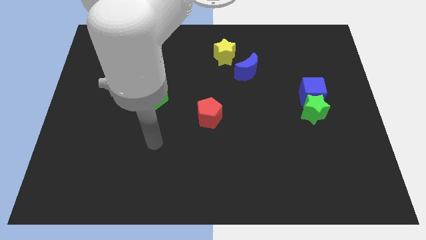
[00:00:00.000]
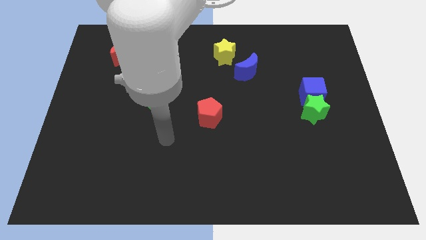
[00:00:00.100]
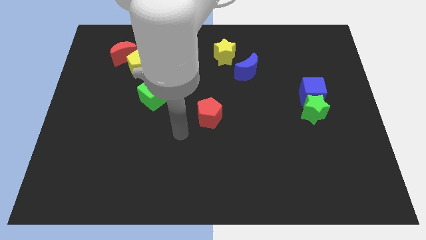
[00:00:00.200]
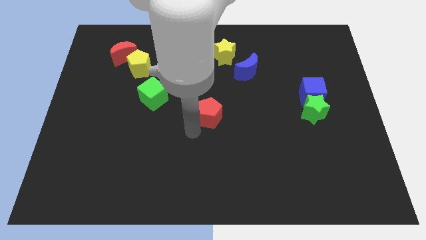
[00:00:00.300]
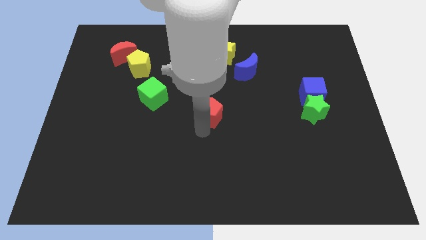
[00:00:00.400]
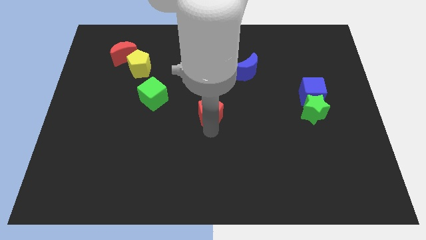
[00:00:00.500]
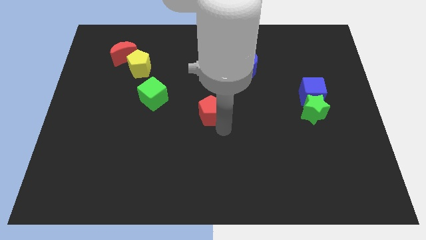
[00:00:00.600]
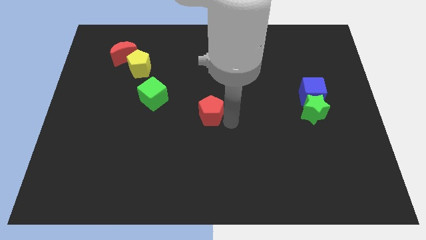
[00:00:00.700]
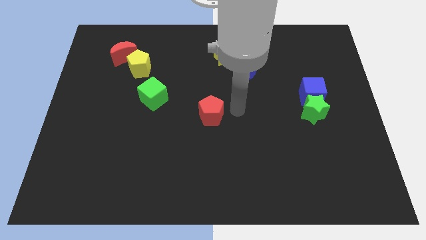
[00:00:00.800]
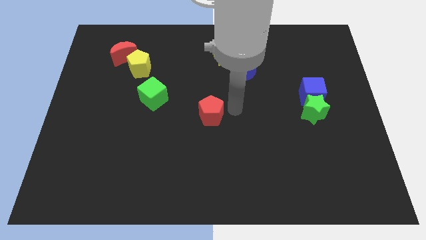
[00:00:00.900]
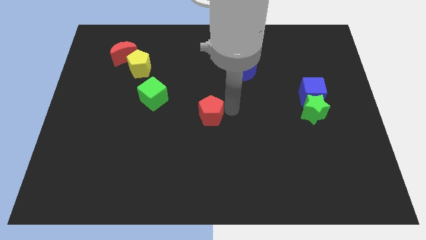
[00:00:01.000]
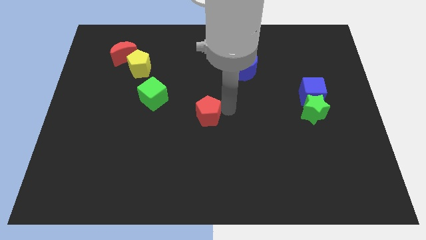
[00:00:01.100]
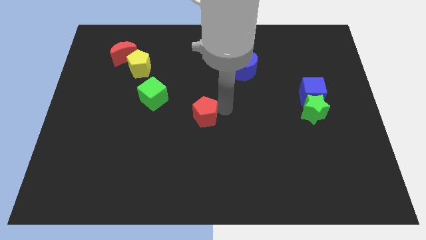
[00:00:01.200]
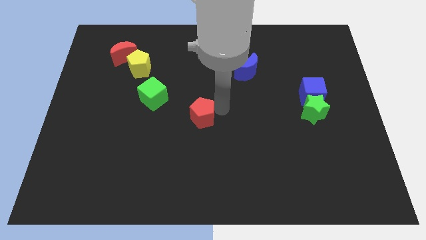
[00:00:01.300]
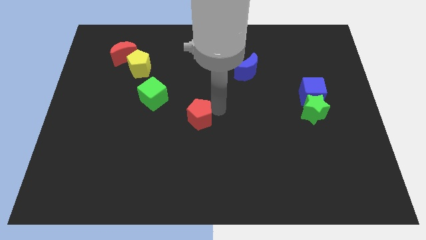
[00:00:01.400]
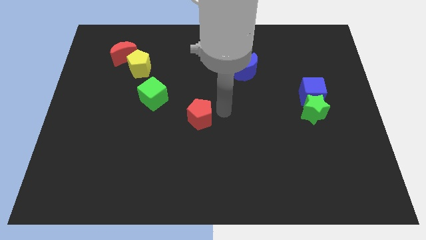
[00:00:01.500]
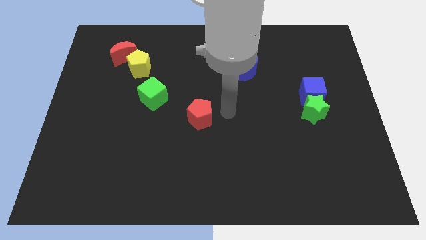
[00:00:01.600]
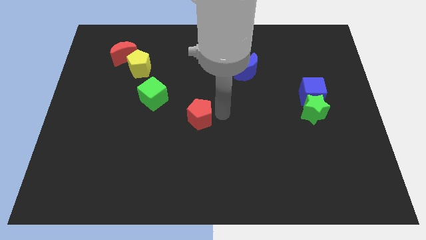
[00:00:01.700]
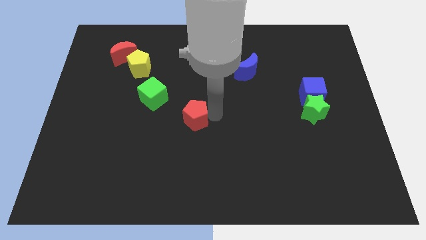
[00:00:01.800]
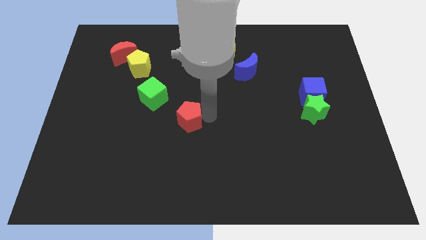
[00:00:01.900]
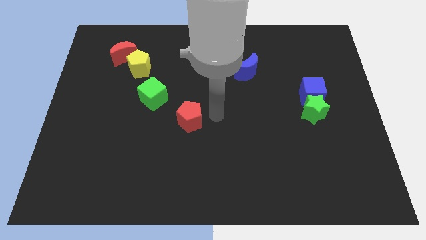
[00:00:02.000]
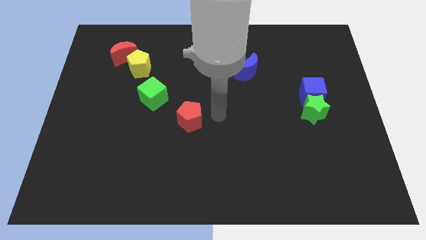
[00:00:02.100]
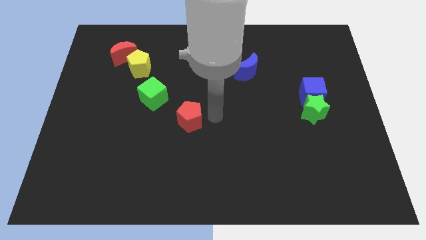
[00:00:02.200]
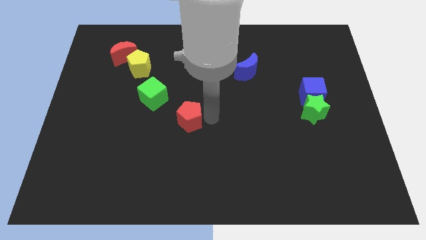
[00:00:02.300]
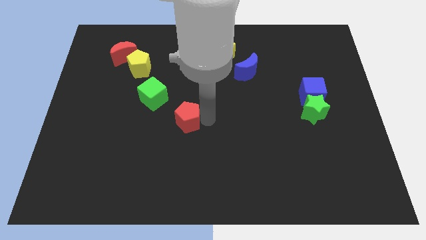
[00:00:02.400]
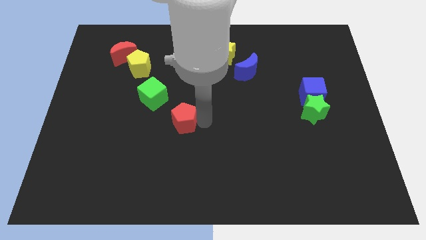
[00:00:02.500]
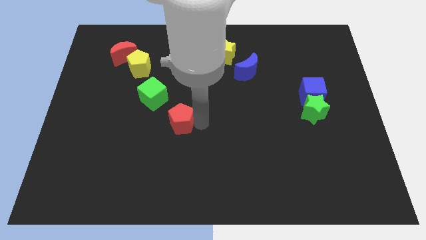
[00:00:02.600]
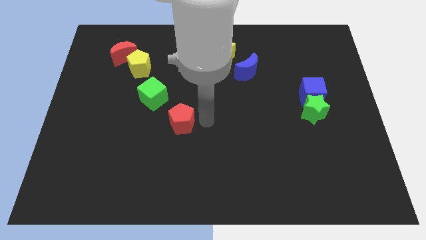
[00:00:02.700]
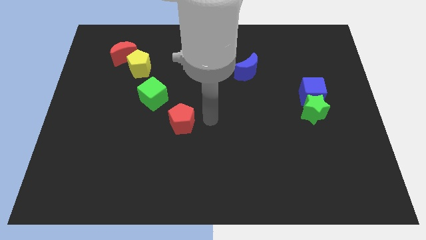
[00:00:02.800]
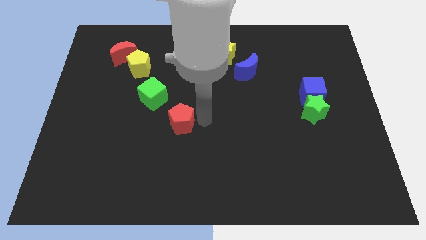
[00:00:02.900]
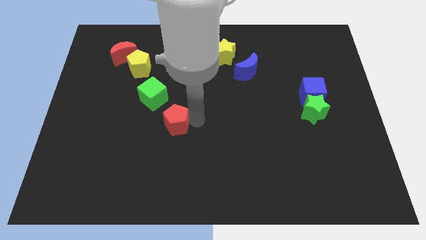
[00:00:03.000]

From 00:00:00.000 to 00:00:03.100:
move the red pentagon left a bit

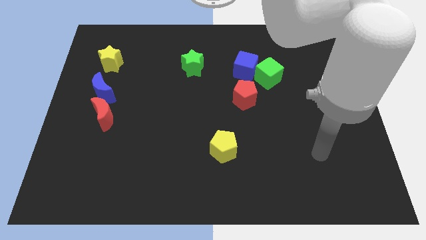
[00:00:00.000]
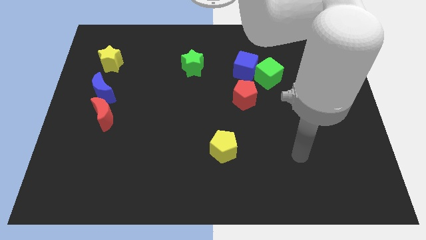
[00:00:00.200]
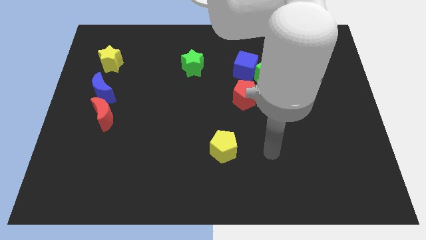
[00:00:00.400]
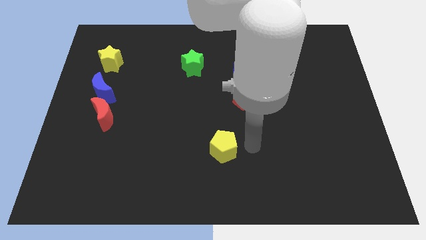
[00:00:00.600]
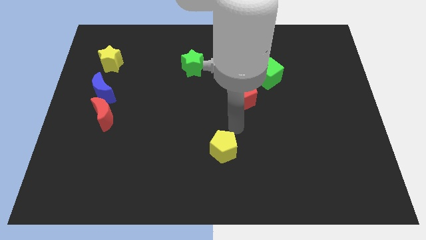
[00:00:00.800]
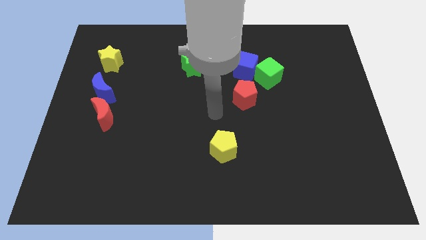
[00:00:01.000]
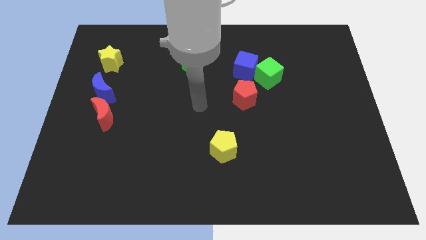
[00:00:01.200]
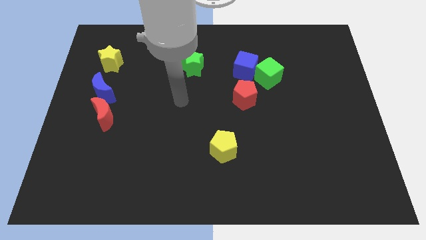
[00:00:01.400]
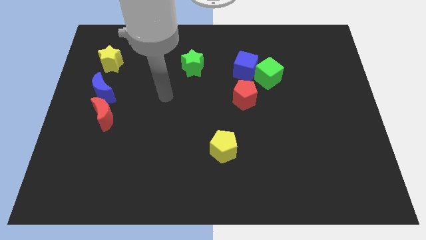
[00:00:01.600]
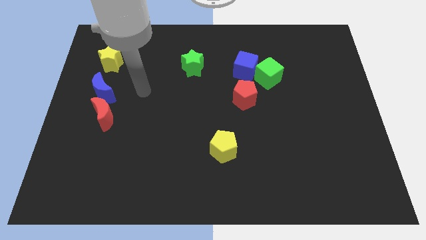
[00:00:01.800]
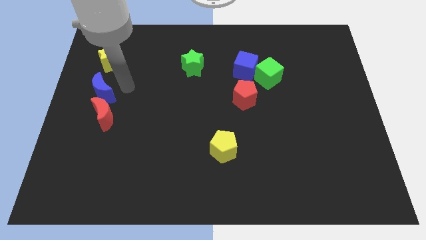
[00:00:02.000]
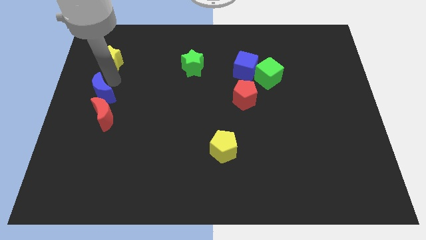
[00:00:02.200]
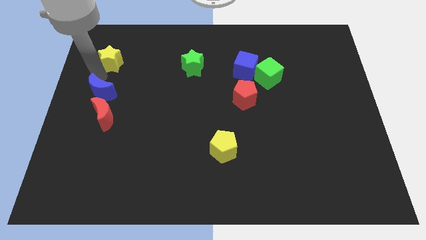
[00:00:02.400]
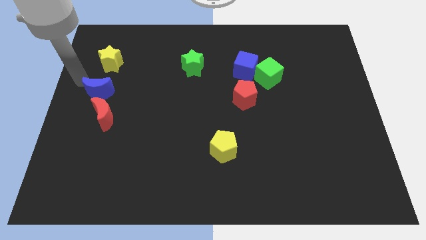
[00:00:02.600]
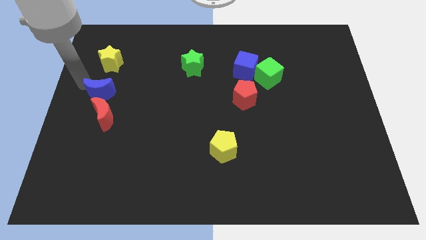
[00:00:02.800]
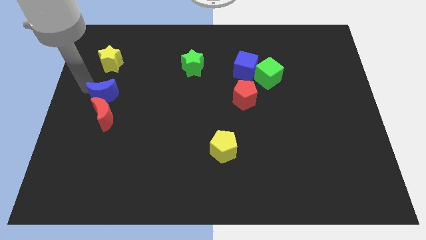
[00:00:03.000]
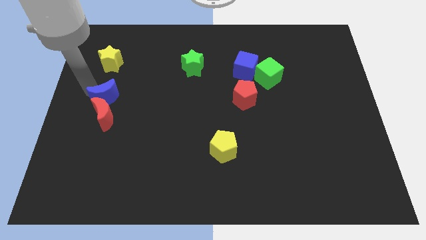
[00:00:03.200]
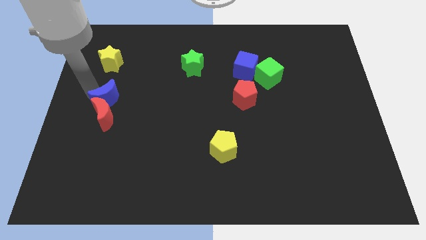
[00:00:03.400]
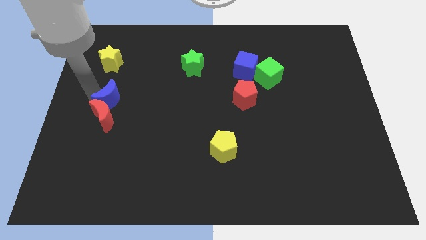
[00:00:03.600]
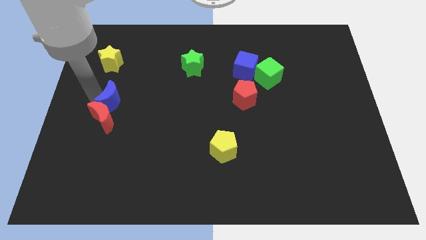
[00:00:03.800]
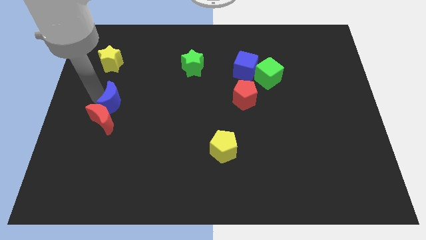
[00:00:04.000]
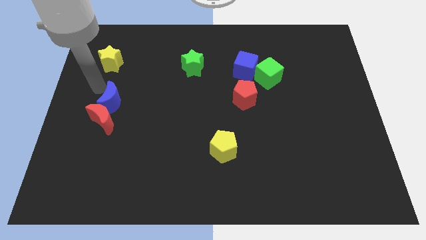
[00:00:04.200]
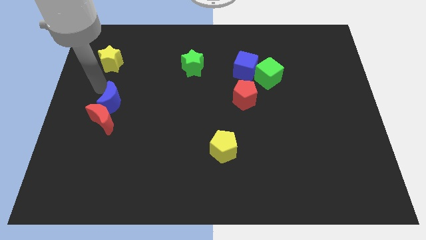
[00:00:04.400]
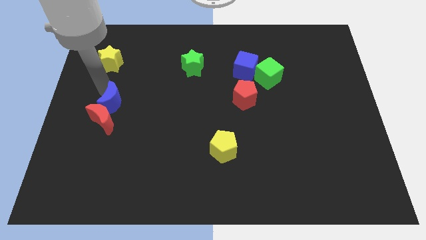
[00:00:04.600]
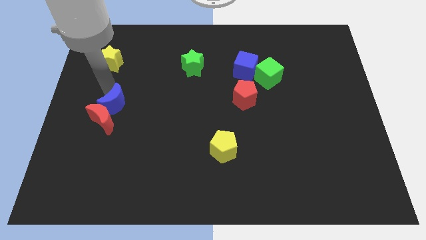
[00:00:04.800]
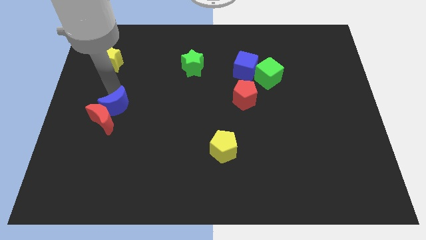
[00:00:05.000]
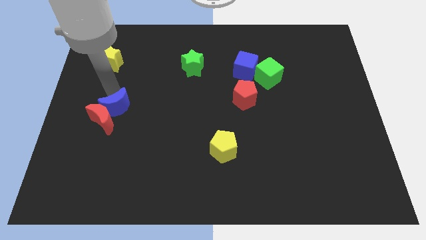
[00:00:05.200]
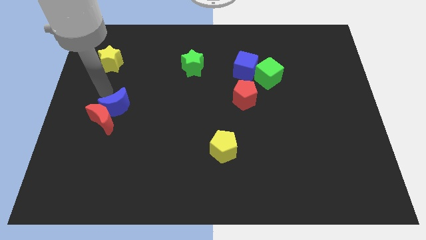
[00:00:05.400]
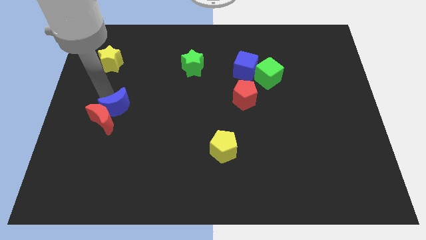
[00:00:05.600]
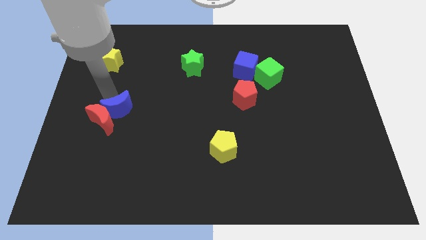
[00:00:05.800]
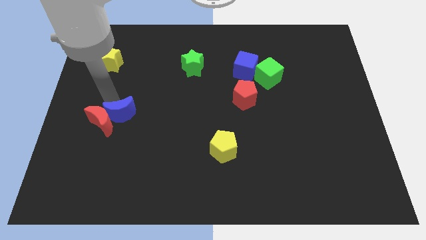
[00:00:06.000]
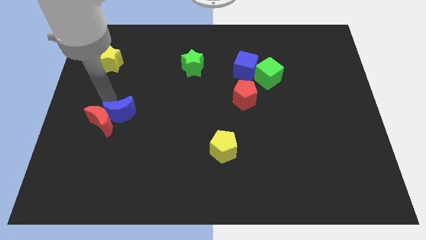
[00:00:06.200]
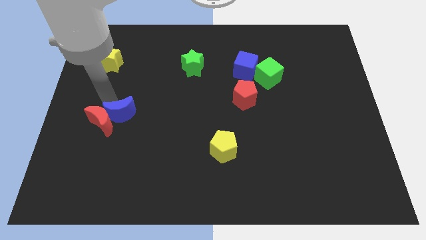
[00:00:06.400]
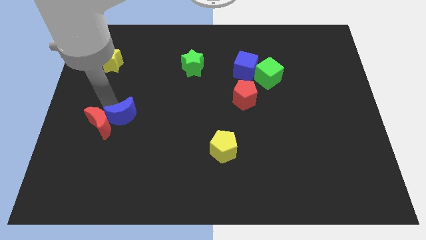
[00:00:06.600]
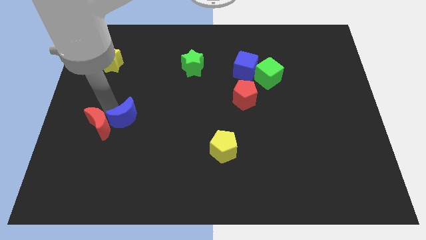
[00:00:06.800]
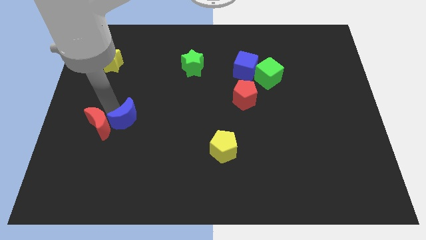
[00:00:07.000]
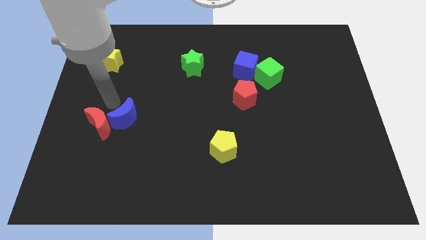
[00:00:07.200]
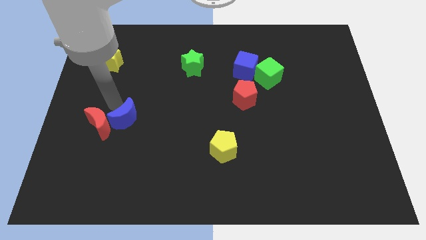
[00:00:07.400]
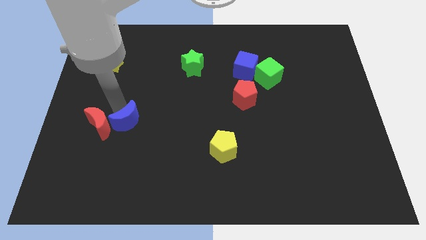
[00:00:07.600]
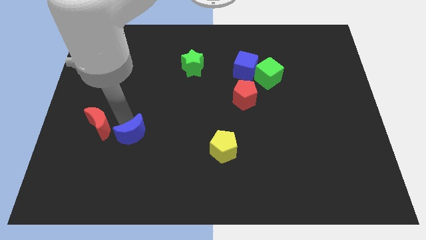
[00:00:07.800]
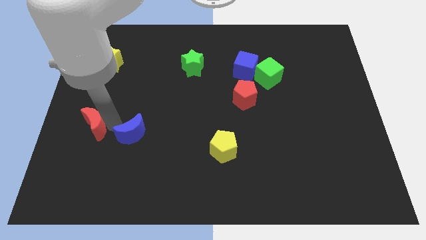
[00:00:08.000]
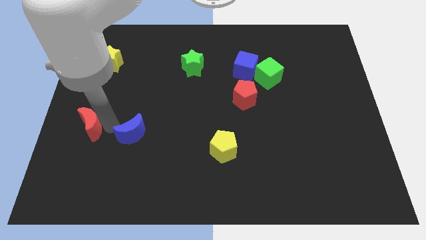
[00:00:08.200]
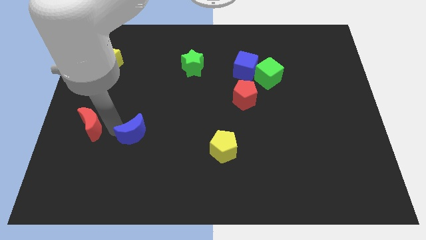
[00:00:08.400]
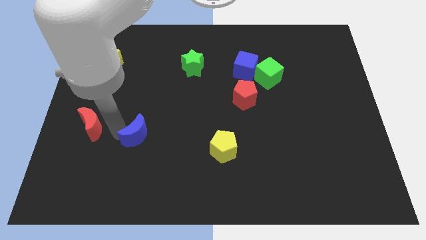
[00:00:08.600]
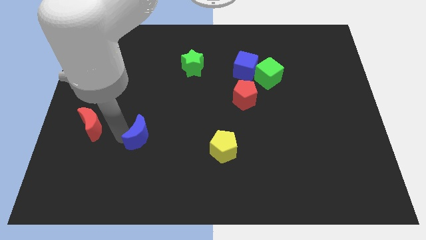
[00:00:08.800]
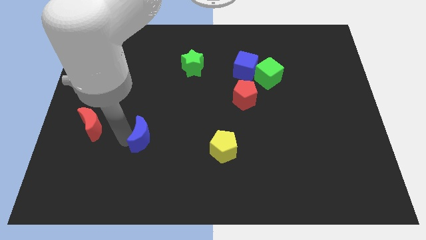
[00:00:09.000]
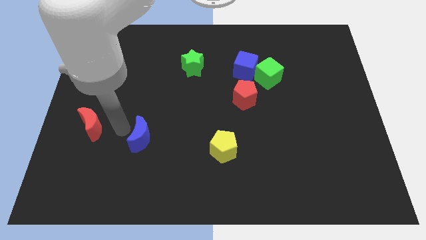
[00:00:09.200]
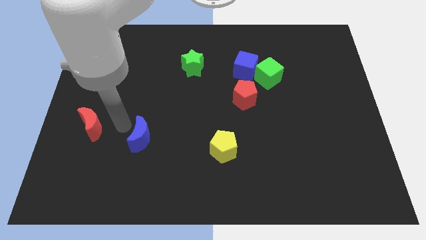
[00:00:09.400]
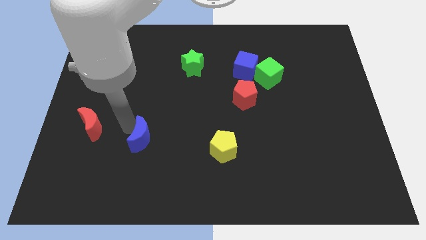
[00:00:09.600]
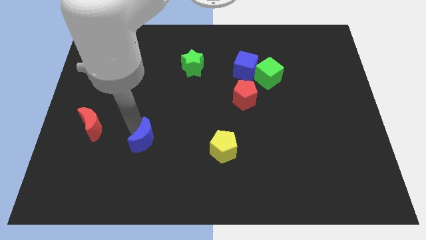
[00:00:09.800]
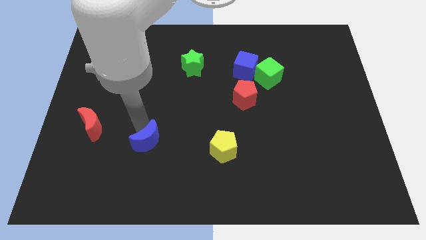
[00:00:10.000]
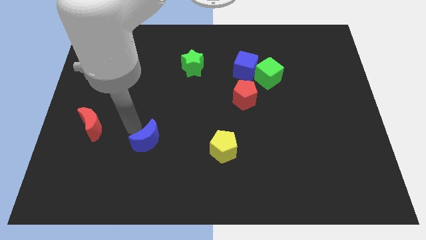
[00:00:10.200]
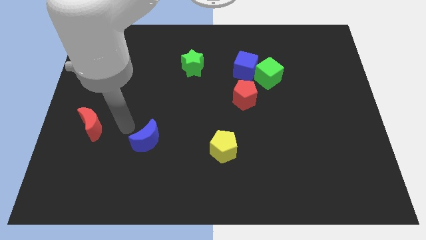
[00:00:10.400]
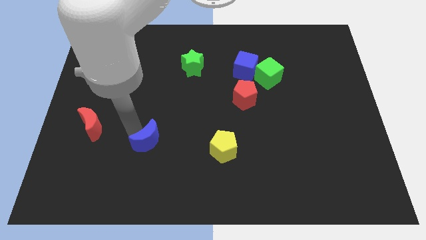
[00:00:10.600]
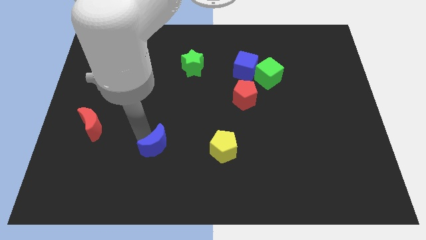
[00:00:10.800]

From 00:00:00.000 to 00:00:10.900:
move the blue moon down and to the right diagonally
